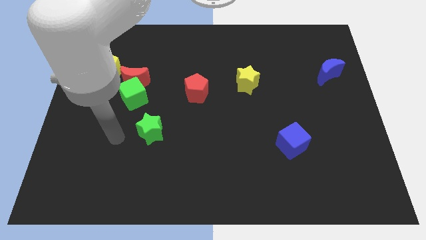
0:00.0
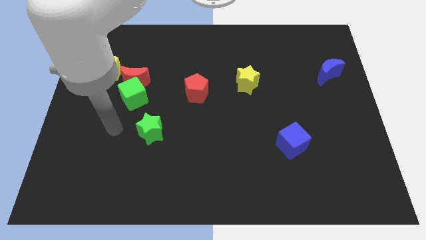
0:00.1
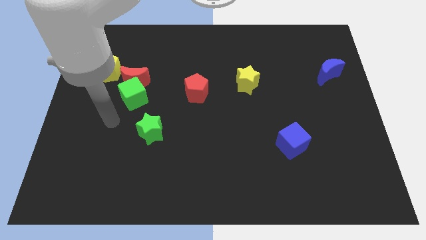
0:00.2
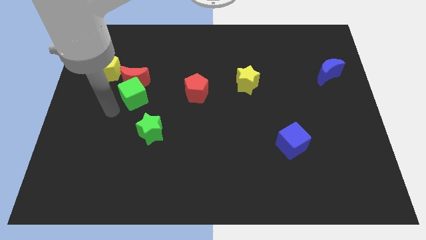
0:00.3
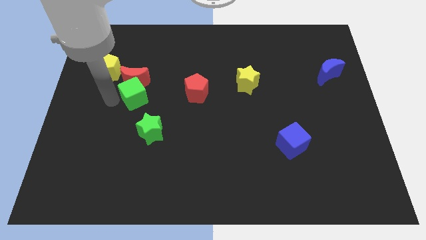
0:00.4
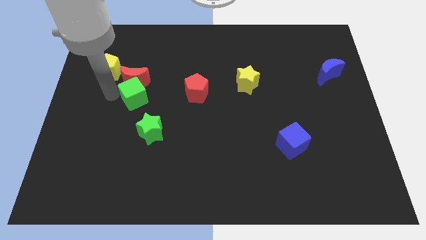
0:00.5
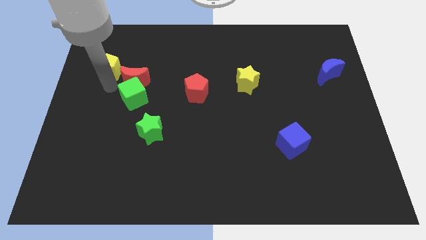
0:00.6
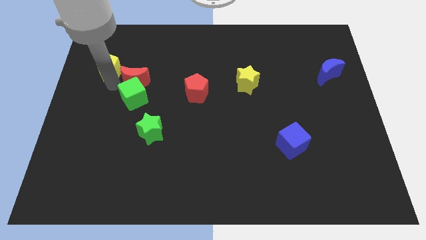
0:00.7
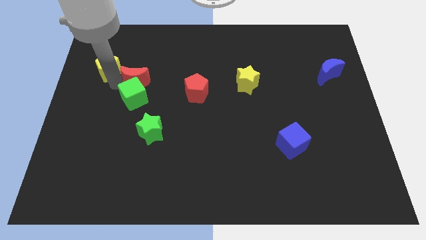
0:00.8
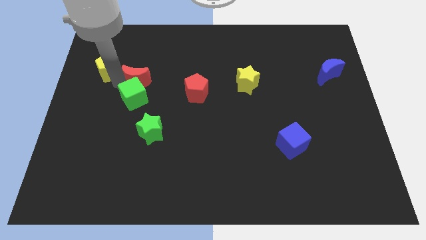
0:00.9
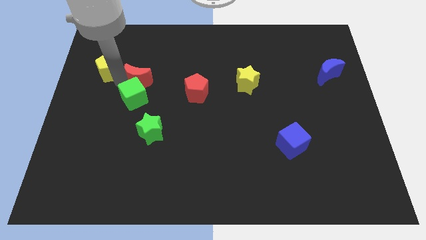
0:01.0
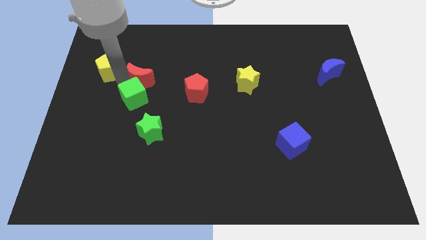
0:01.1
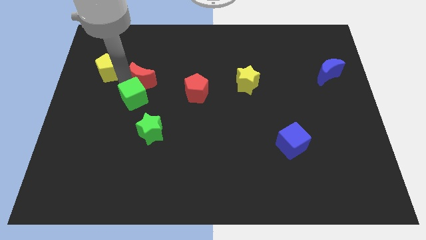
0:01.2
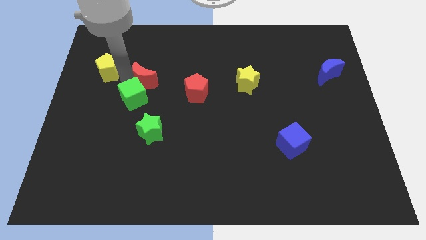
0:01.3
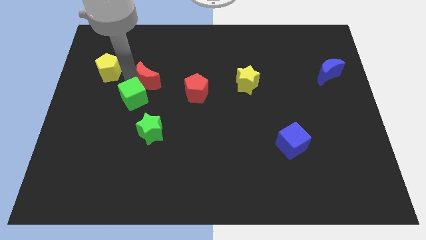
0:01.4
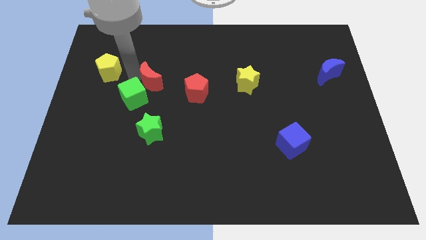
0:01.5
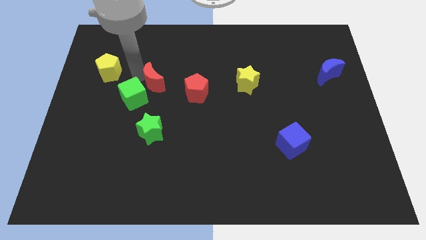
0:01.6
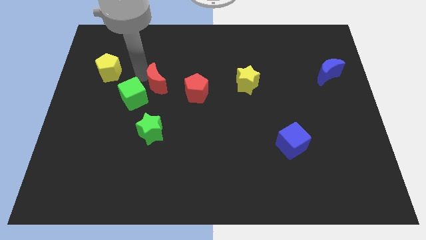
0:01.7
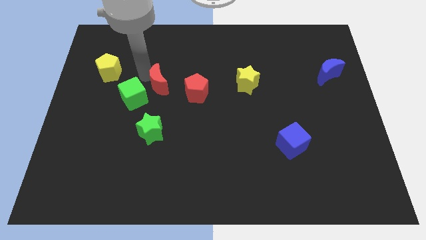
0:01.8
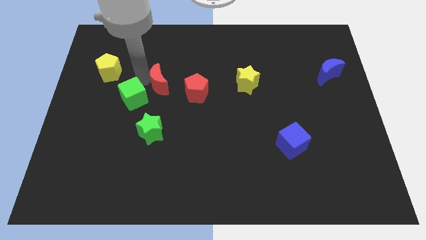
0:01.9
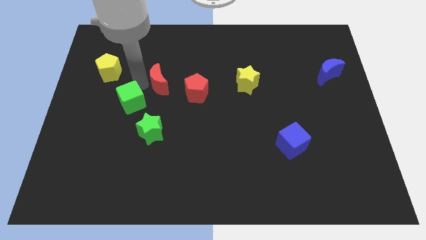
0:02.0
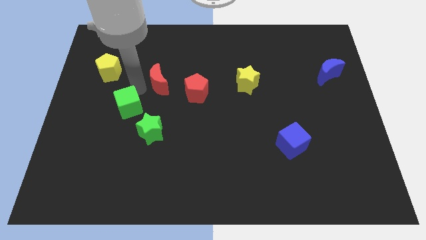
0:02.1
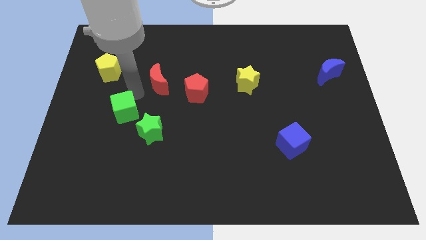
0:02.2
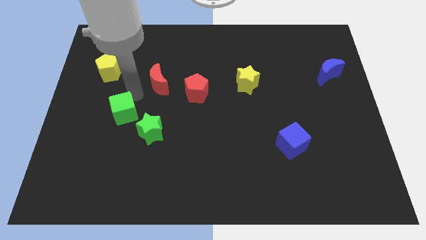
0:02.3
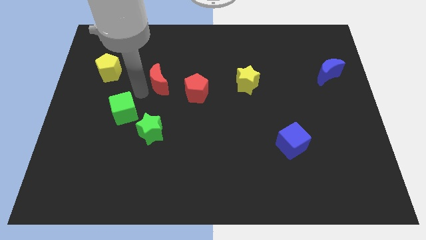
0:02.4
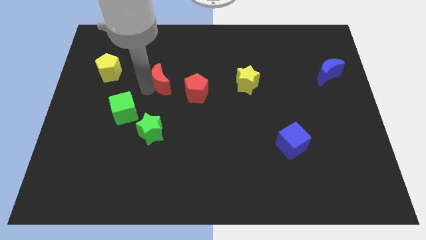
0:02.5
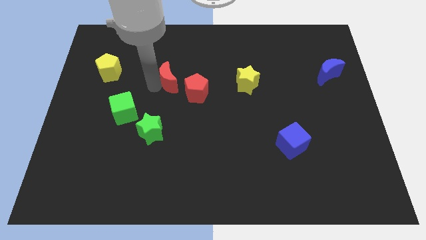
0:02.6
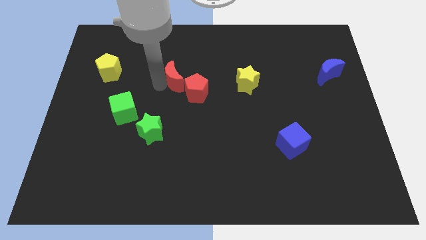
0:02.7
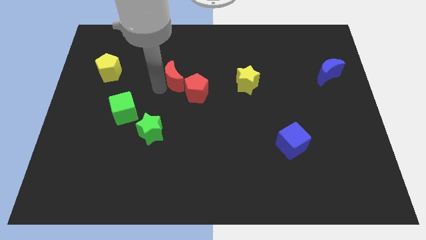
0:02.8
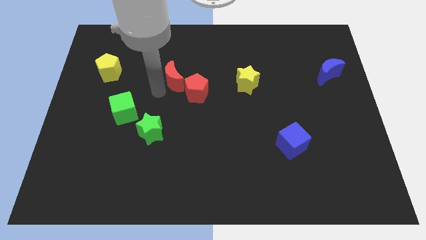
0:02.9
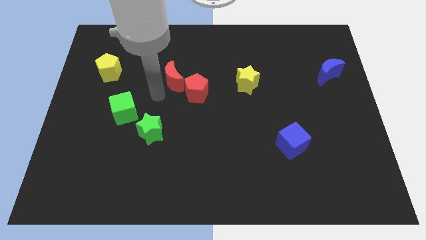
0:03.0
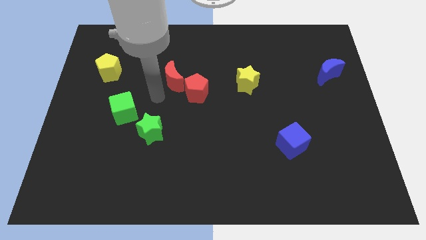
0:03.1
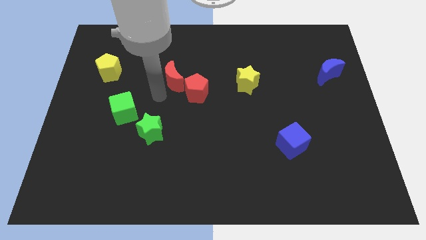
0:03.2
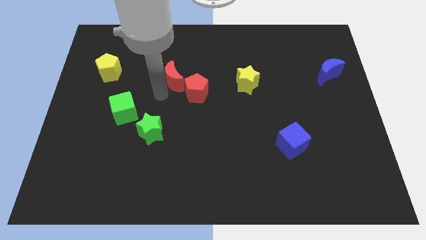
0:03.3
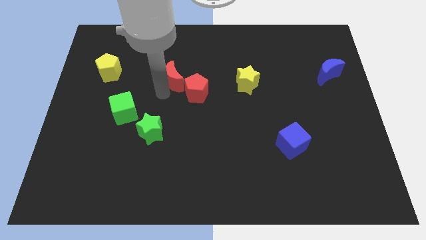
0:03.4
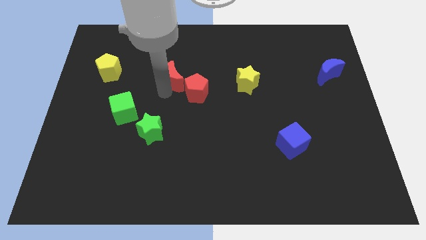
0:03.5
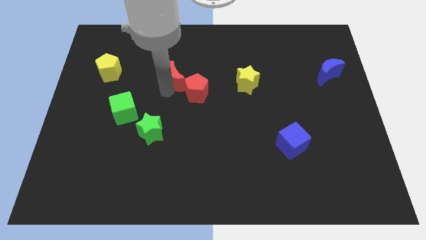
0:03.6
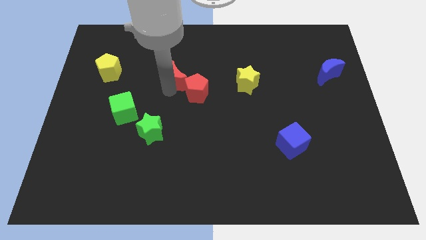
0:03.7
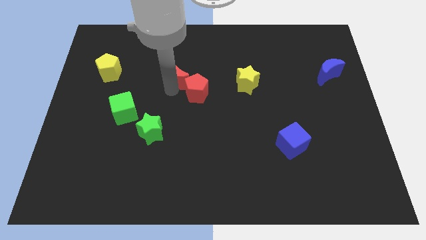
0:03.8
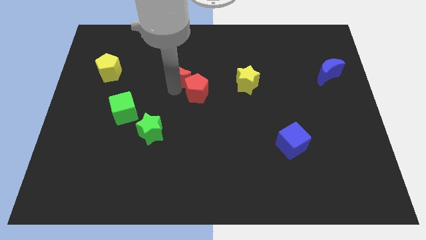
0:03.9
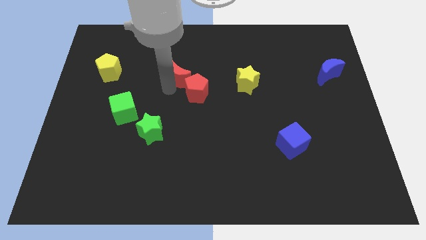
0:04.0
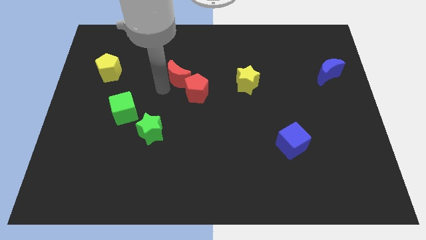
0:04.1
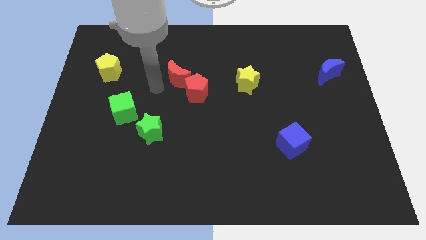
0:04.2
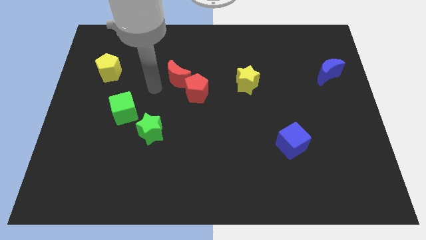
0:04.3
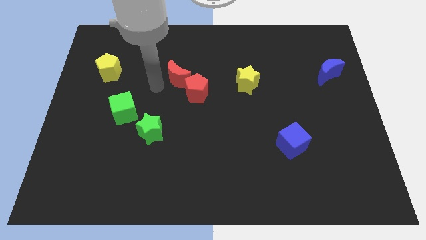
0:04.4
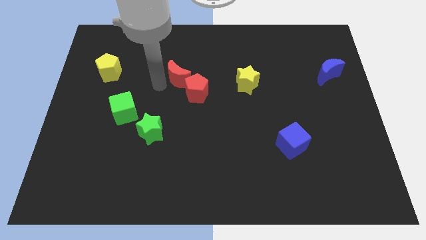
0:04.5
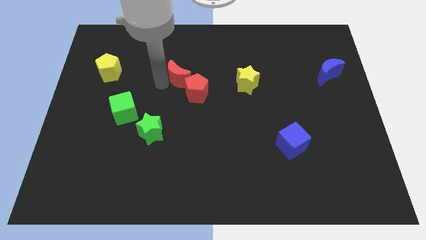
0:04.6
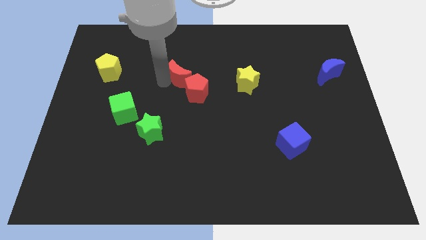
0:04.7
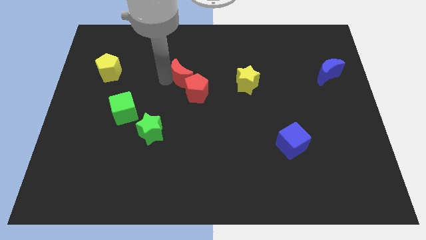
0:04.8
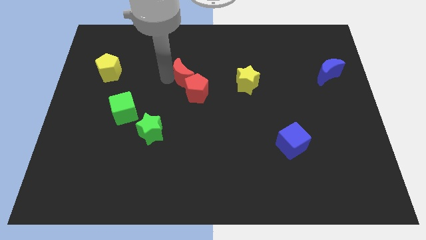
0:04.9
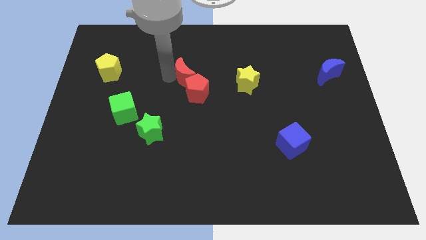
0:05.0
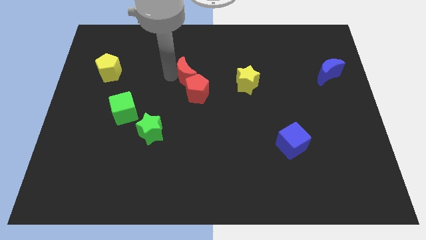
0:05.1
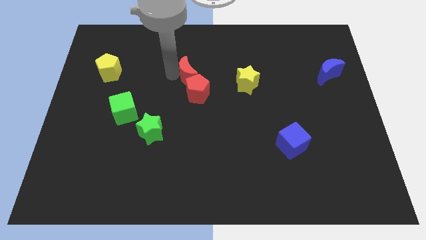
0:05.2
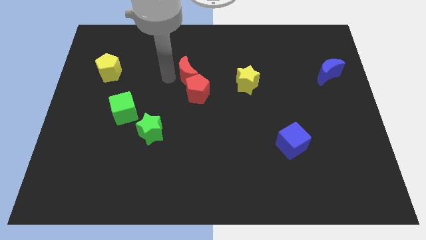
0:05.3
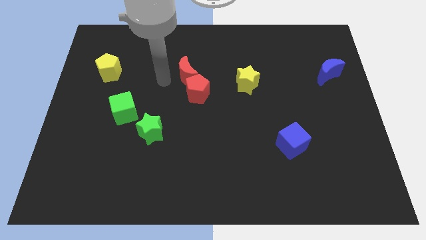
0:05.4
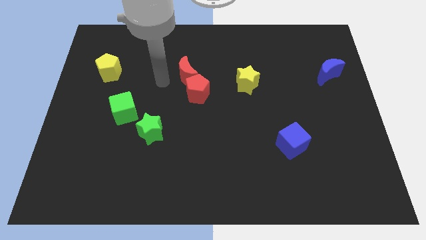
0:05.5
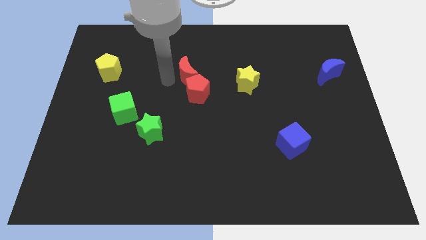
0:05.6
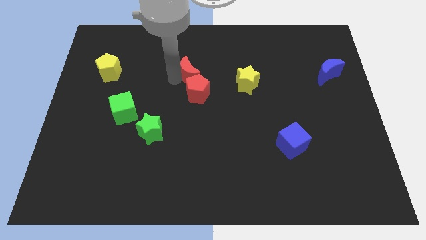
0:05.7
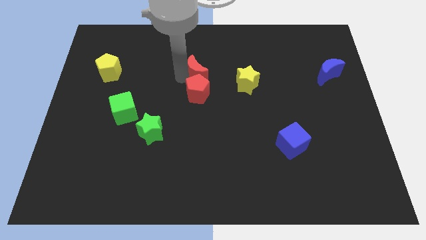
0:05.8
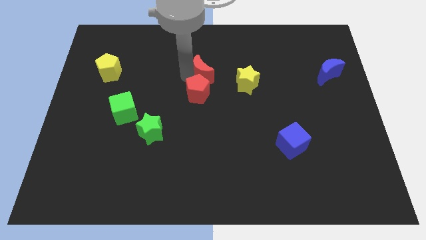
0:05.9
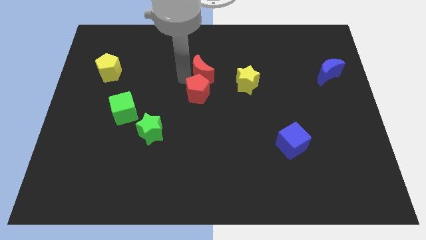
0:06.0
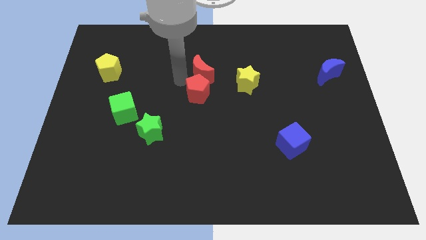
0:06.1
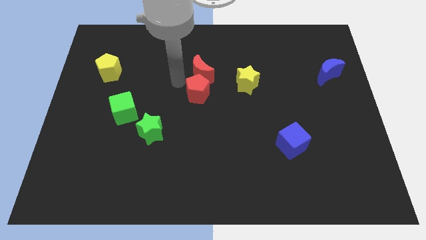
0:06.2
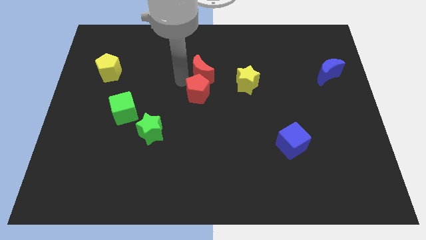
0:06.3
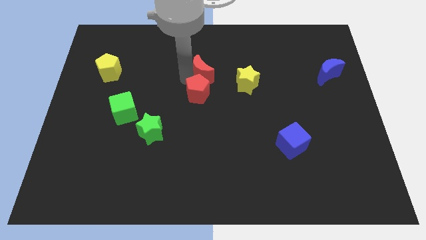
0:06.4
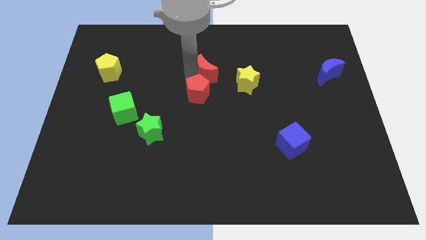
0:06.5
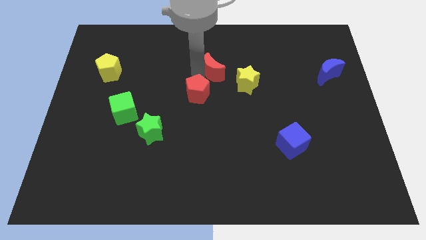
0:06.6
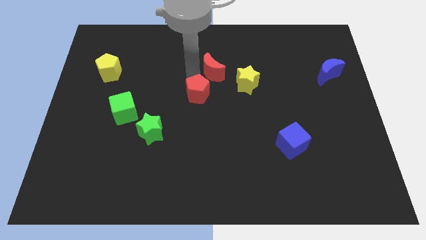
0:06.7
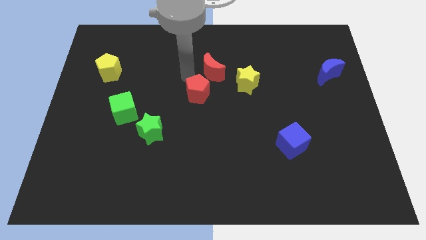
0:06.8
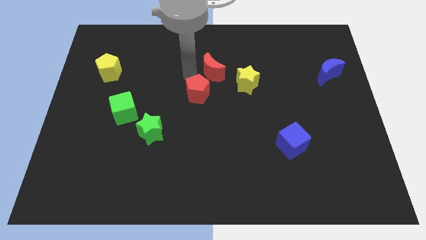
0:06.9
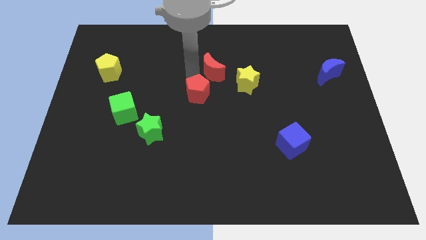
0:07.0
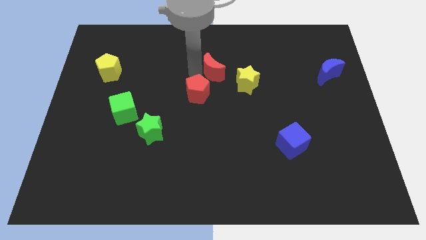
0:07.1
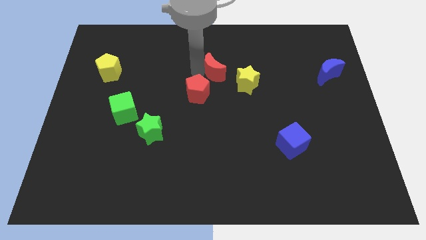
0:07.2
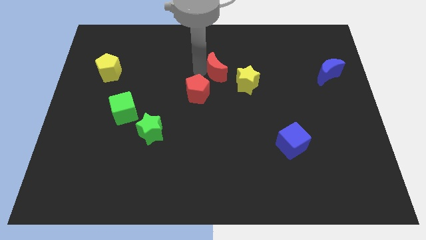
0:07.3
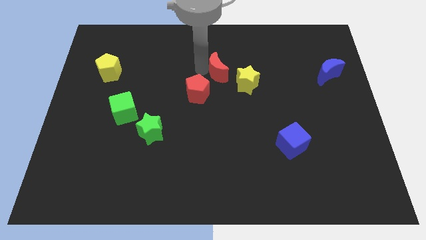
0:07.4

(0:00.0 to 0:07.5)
push the red moon right

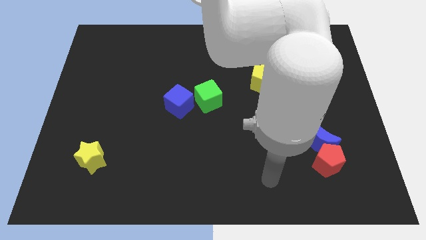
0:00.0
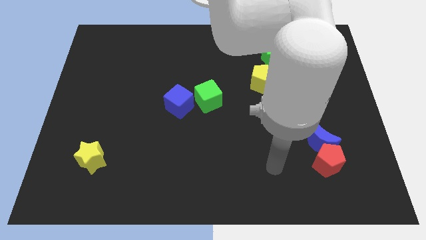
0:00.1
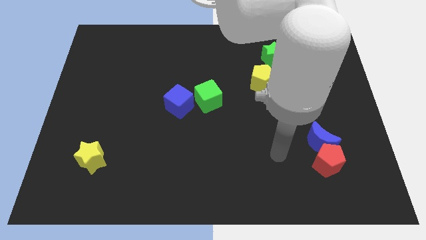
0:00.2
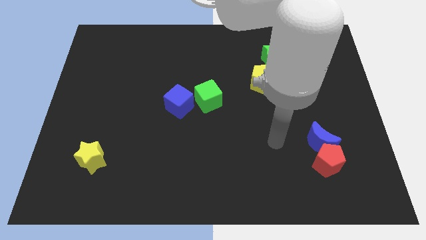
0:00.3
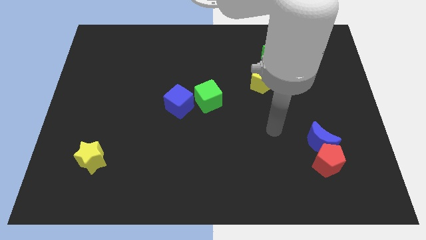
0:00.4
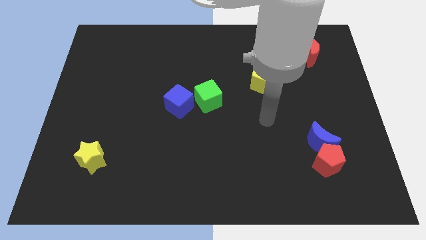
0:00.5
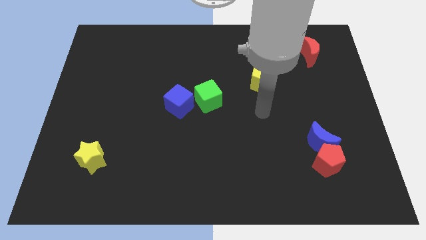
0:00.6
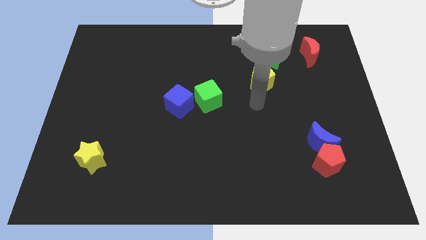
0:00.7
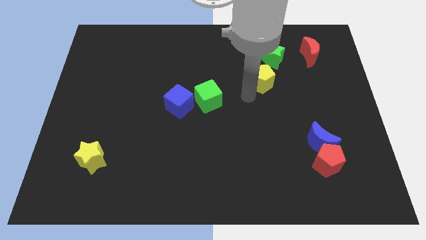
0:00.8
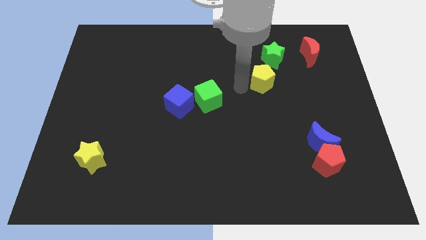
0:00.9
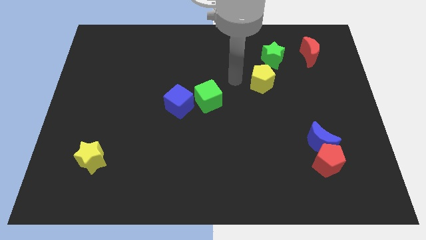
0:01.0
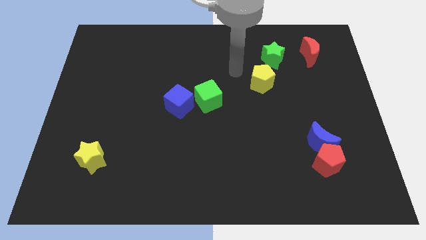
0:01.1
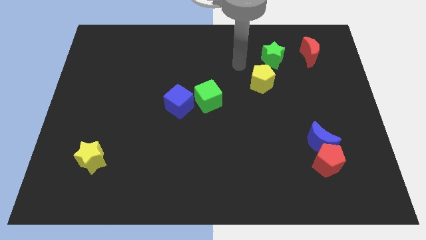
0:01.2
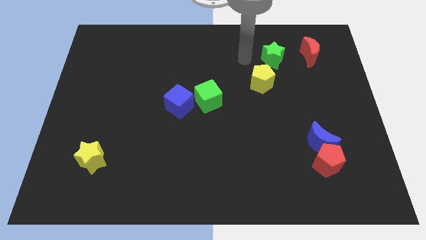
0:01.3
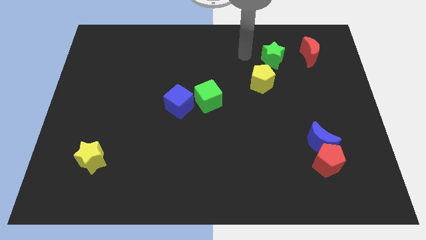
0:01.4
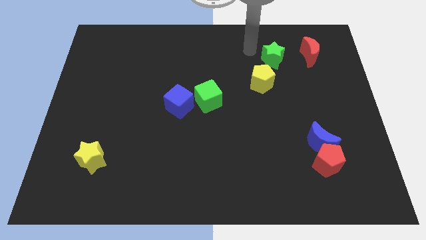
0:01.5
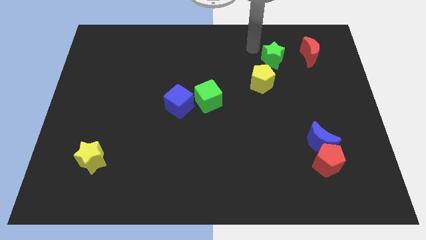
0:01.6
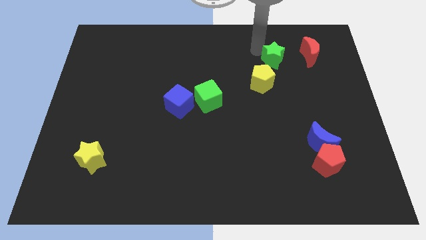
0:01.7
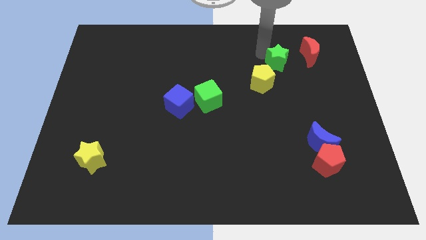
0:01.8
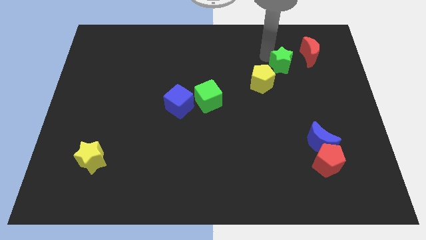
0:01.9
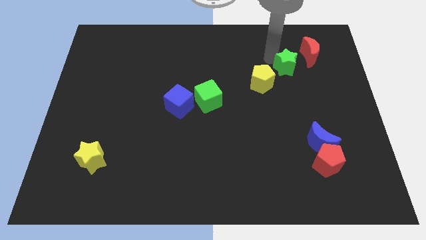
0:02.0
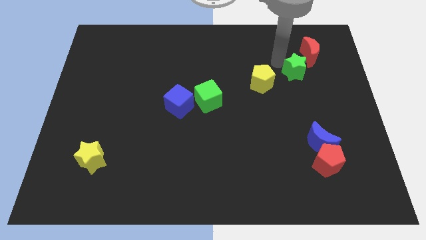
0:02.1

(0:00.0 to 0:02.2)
slide the green star somewhat diagonally downwards and to the right
